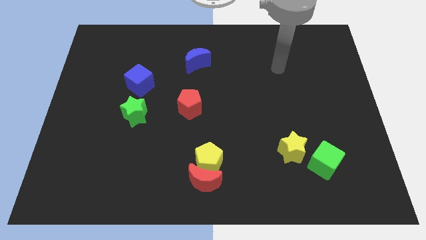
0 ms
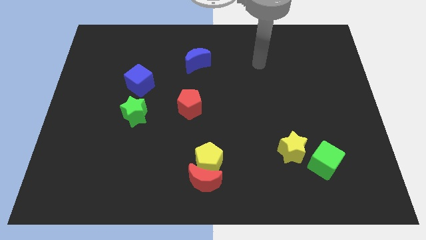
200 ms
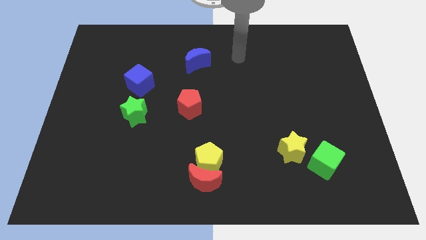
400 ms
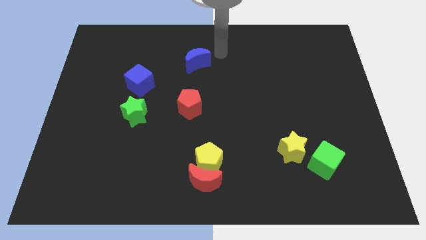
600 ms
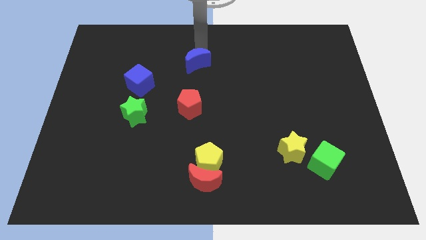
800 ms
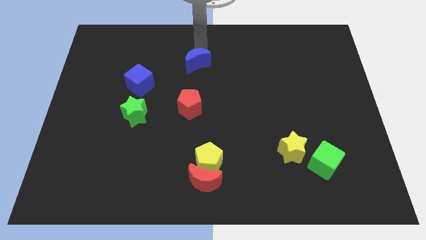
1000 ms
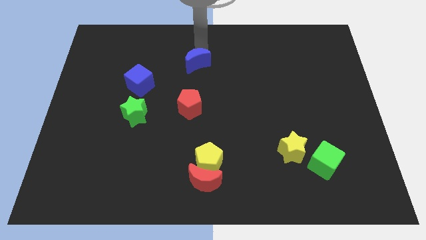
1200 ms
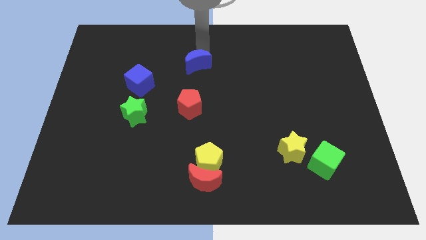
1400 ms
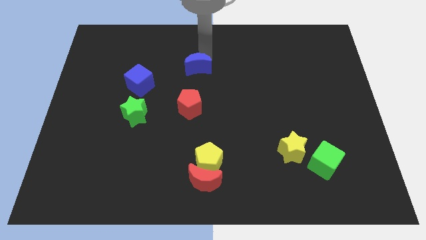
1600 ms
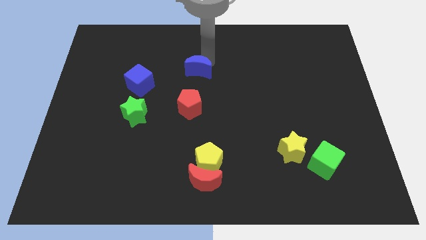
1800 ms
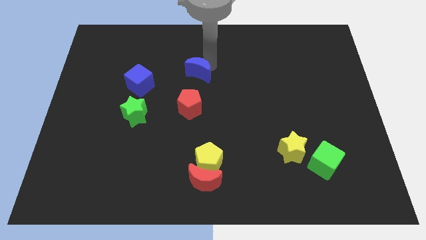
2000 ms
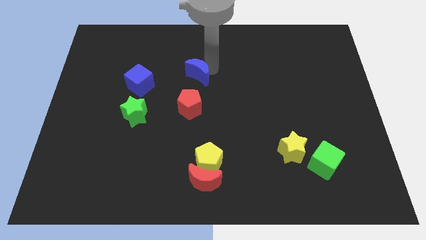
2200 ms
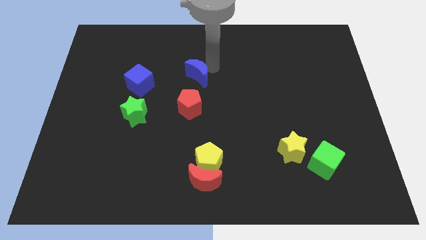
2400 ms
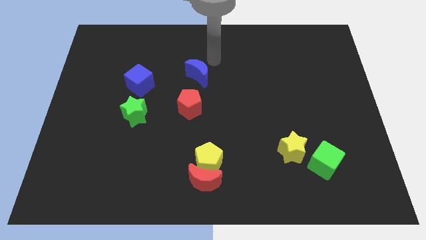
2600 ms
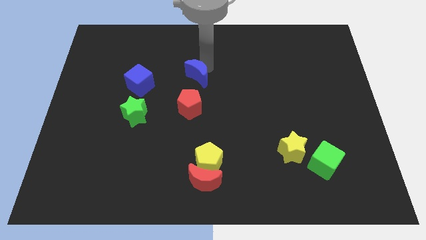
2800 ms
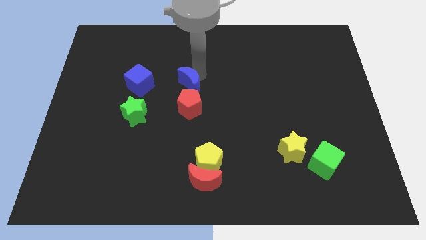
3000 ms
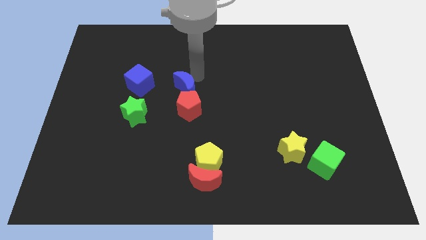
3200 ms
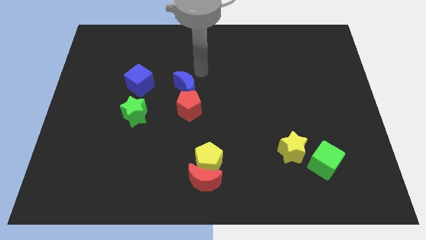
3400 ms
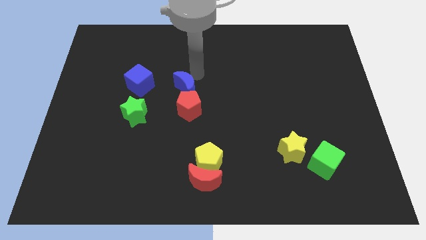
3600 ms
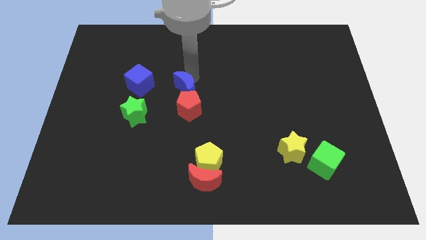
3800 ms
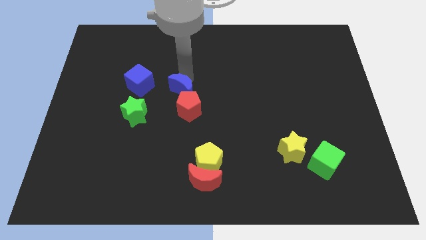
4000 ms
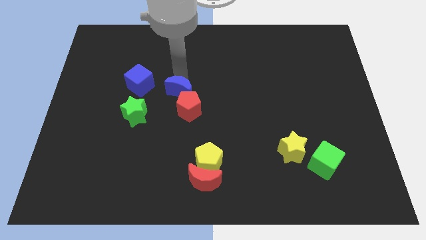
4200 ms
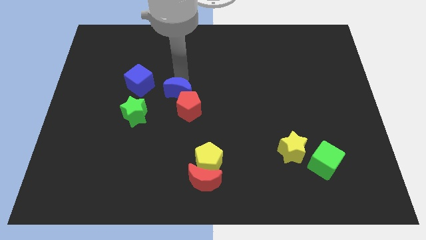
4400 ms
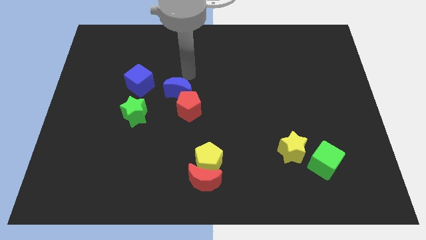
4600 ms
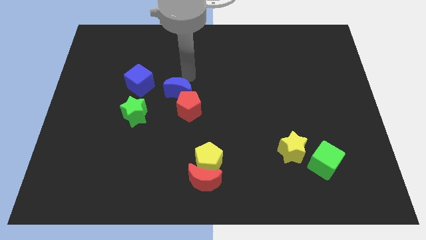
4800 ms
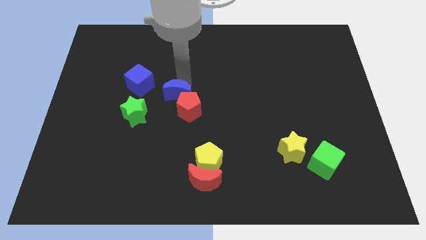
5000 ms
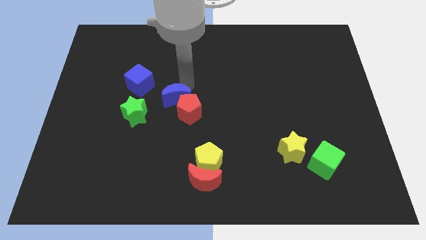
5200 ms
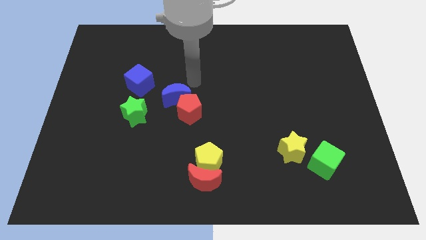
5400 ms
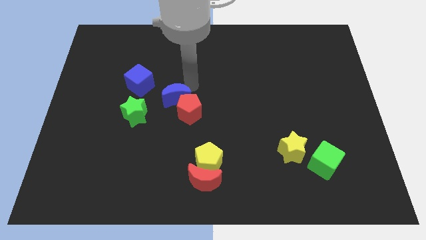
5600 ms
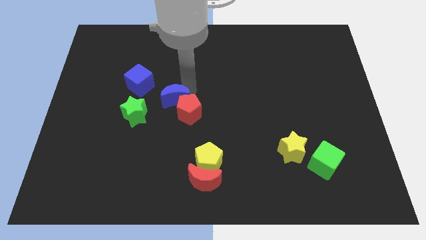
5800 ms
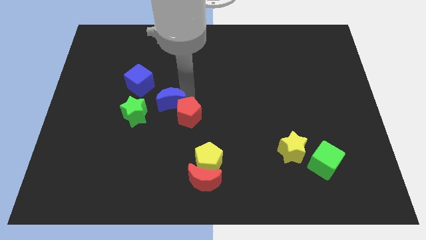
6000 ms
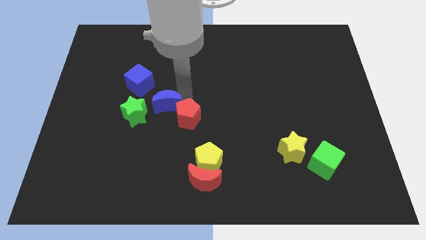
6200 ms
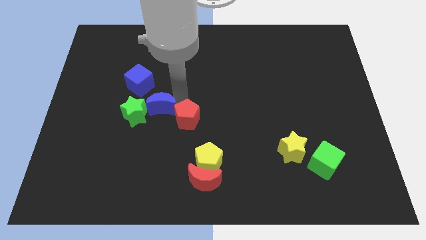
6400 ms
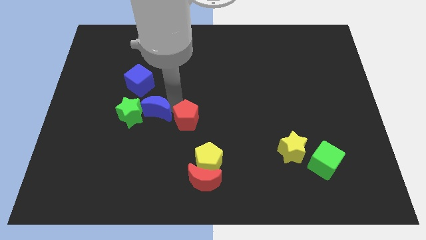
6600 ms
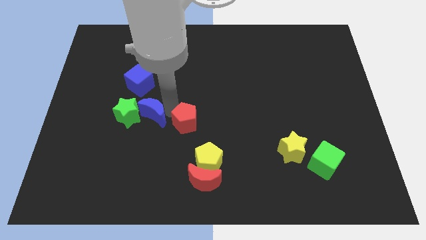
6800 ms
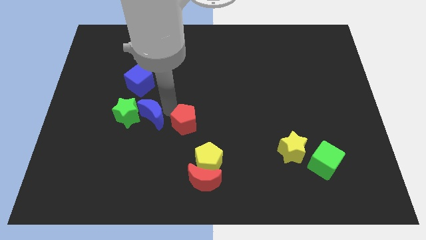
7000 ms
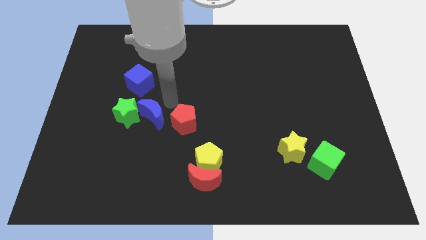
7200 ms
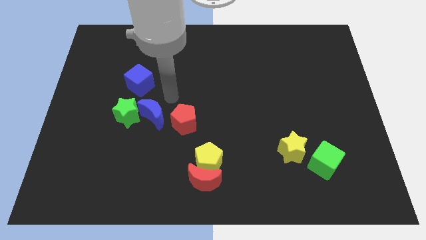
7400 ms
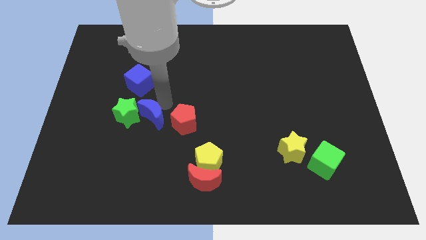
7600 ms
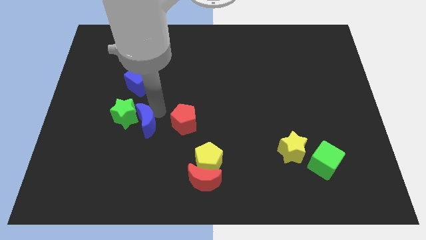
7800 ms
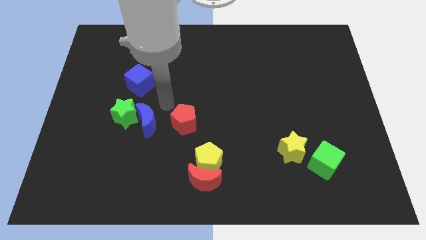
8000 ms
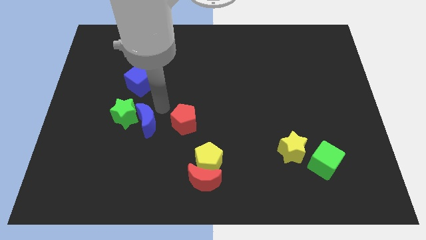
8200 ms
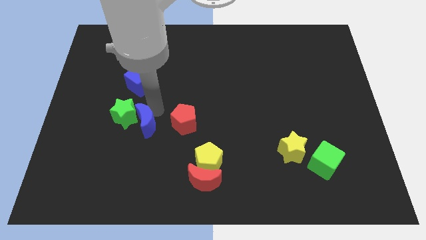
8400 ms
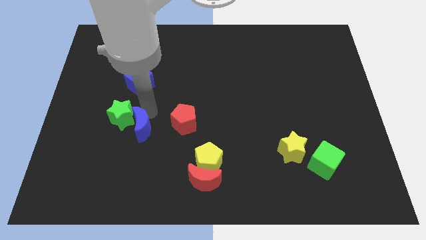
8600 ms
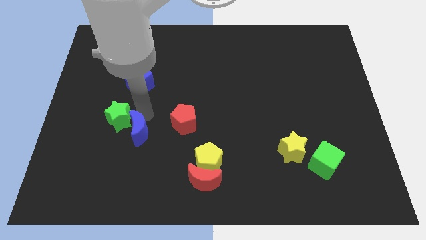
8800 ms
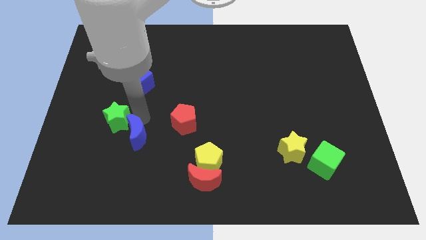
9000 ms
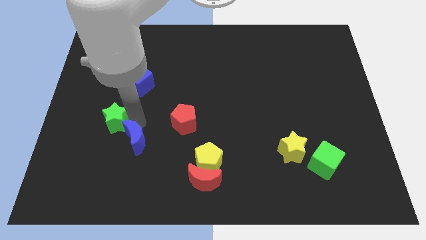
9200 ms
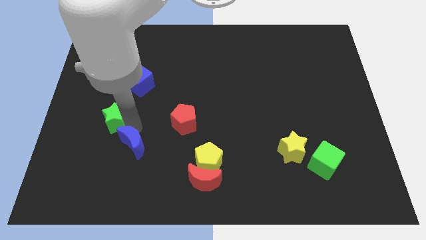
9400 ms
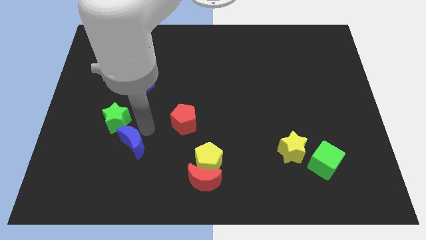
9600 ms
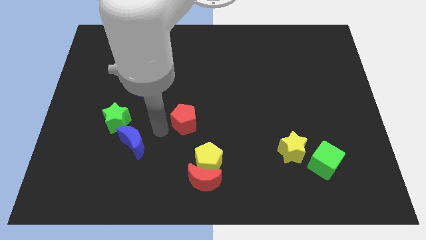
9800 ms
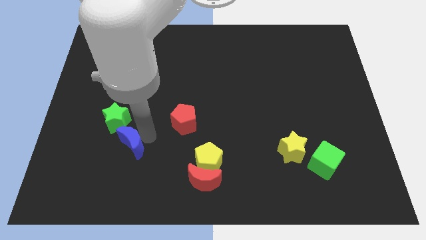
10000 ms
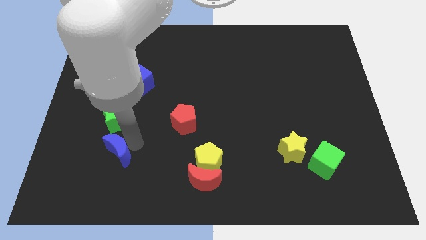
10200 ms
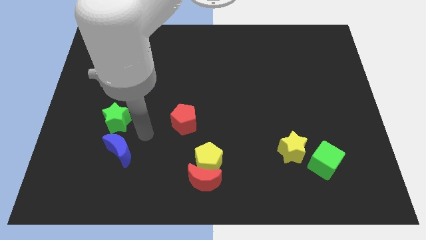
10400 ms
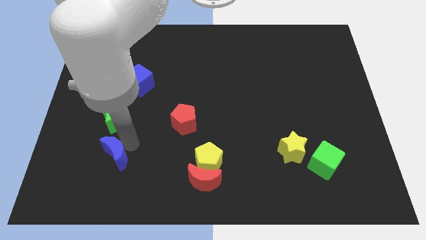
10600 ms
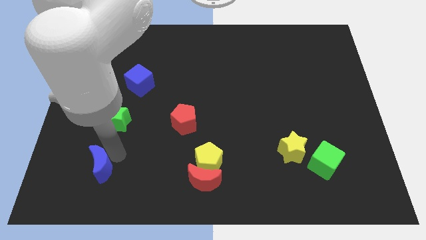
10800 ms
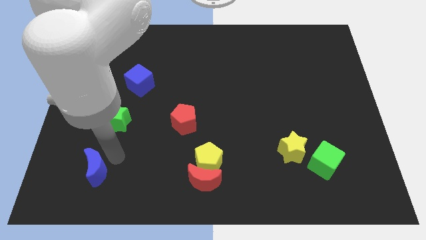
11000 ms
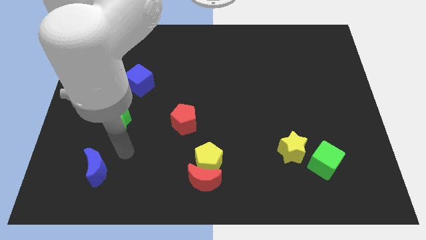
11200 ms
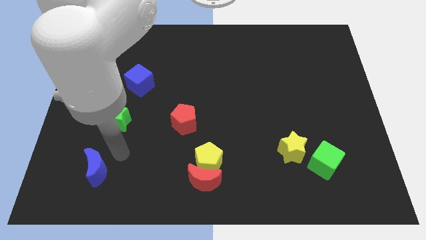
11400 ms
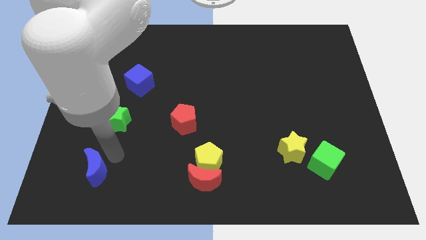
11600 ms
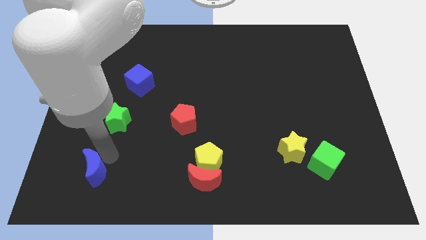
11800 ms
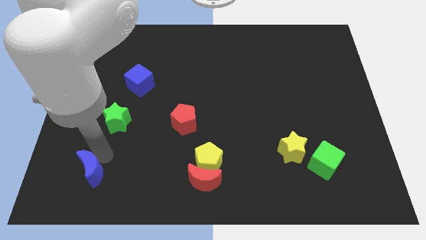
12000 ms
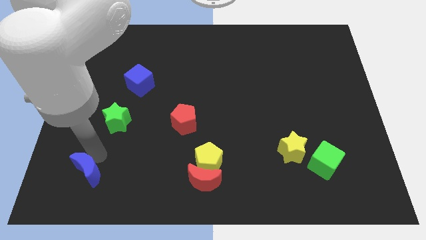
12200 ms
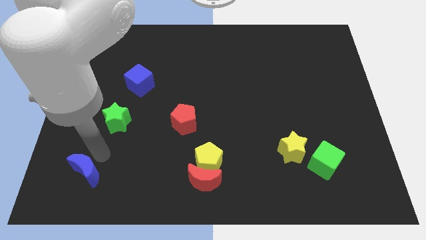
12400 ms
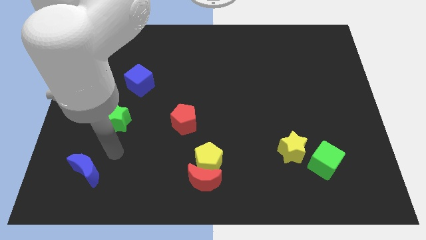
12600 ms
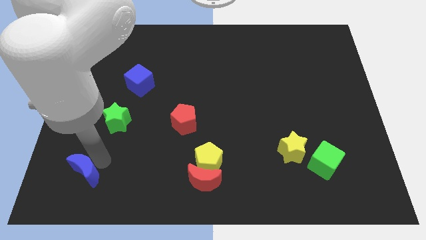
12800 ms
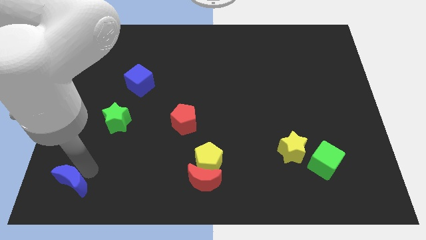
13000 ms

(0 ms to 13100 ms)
put the blue moon to the bottom left corner
